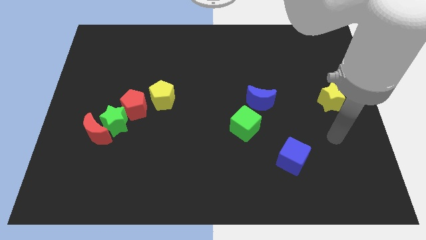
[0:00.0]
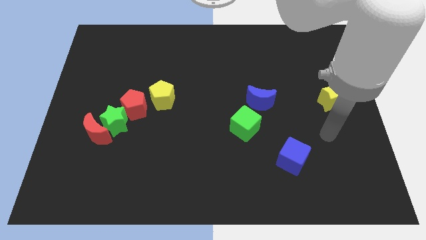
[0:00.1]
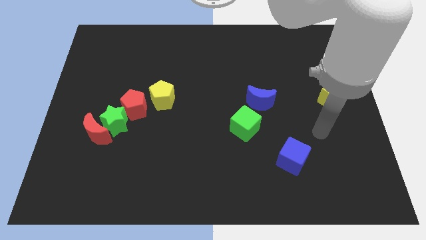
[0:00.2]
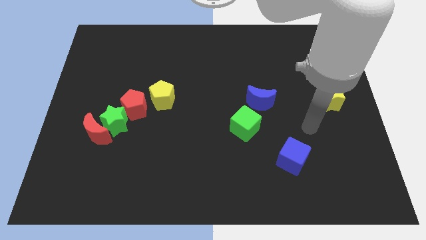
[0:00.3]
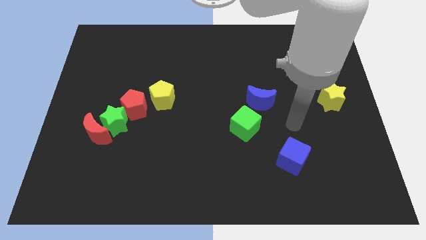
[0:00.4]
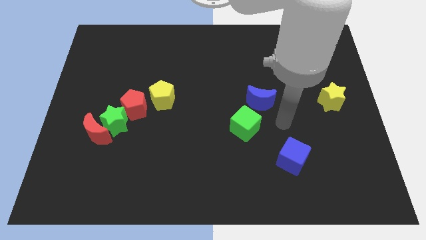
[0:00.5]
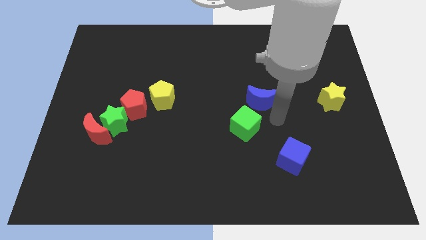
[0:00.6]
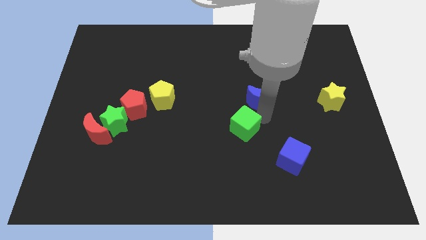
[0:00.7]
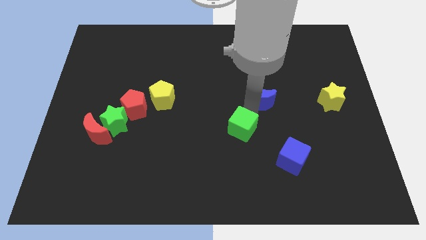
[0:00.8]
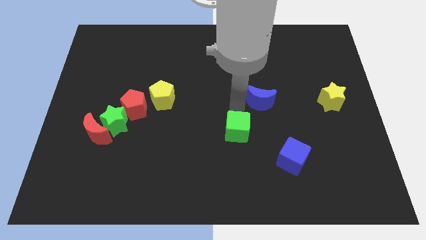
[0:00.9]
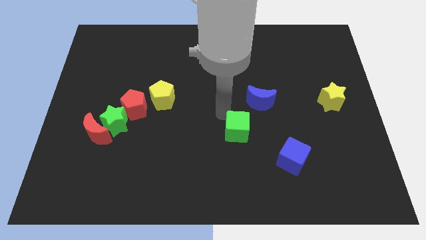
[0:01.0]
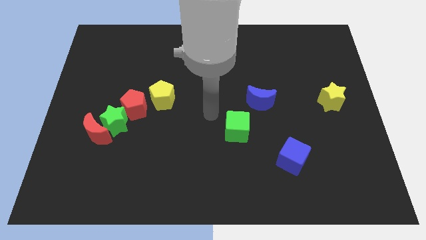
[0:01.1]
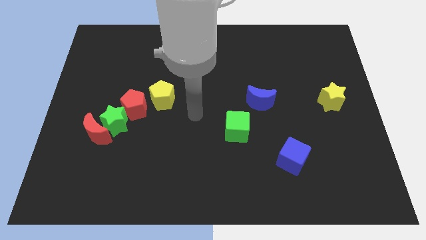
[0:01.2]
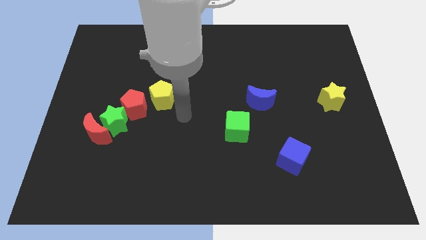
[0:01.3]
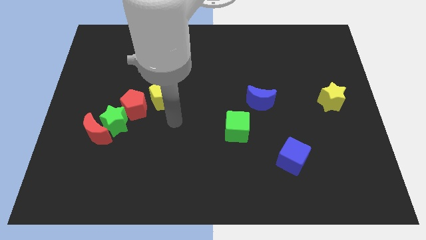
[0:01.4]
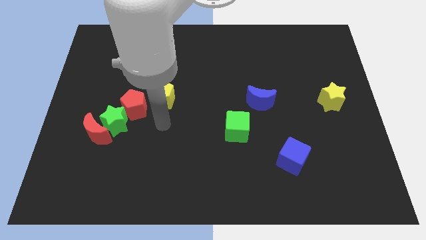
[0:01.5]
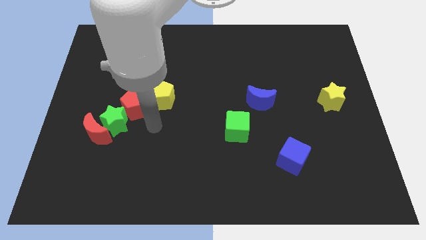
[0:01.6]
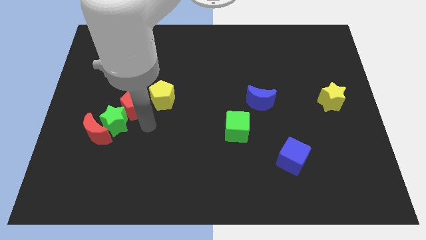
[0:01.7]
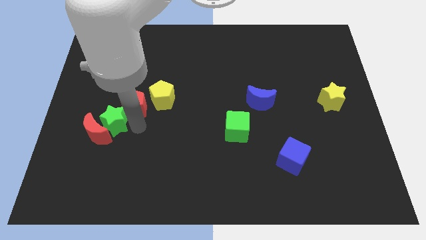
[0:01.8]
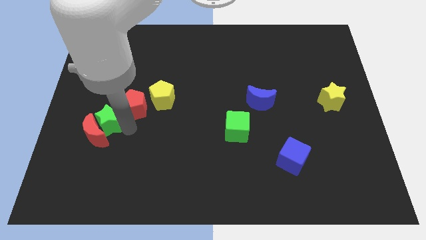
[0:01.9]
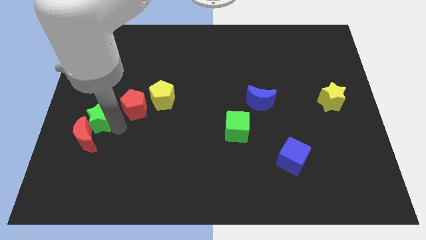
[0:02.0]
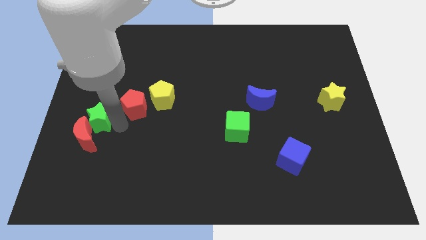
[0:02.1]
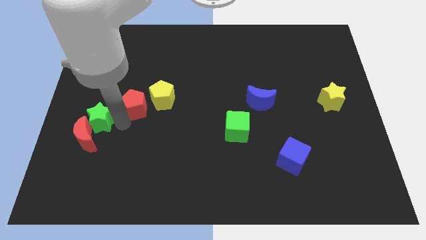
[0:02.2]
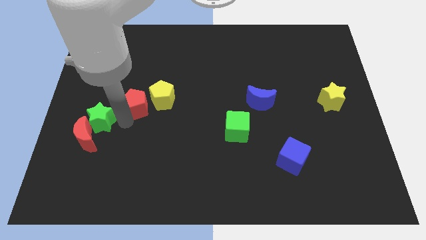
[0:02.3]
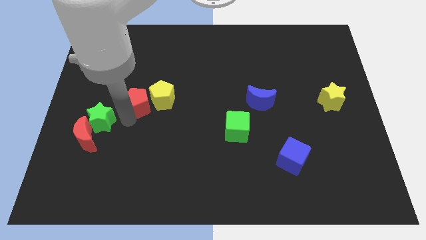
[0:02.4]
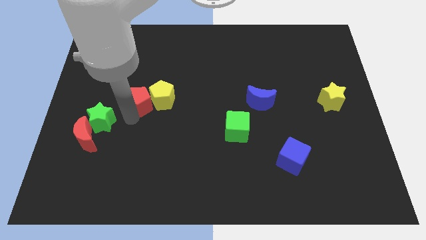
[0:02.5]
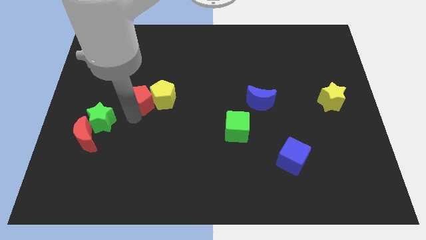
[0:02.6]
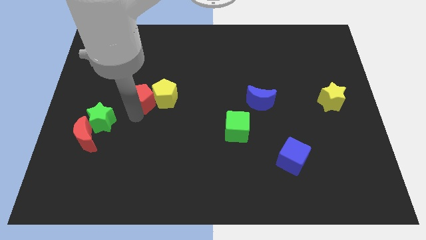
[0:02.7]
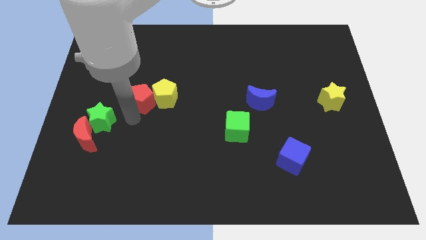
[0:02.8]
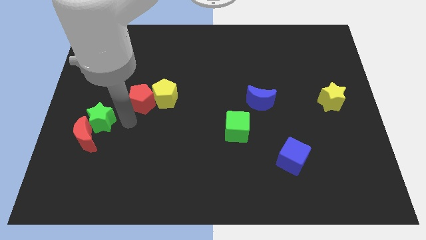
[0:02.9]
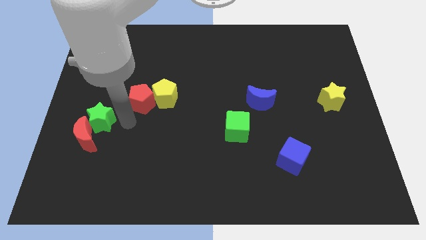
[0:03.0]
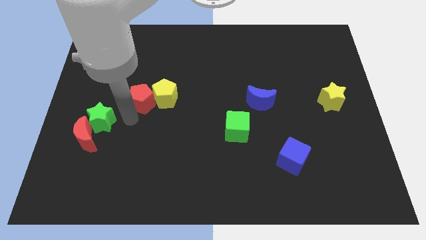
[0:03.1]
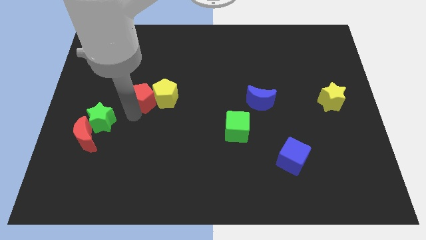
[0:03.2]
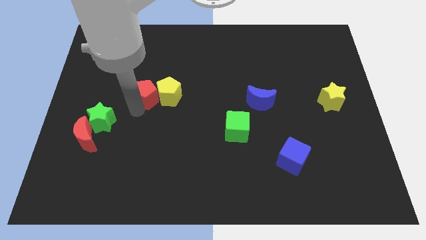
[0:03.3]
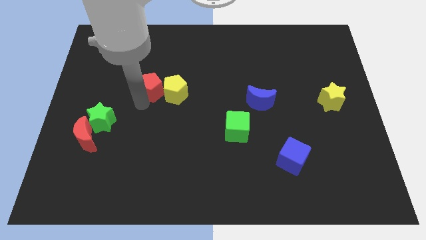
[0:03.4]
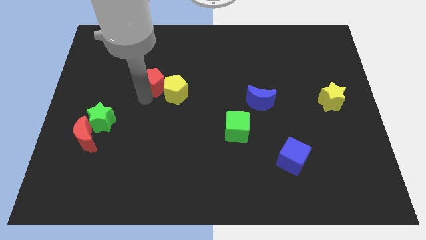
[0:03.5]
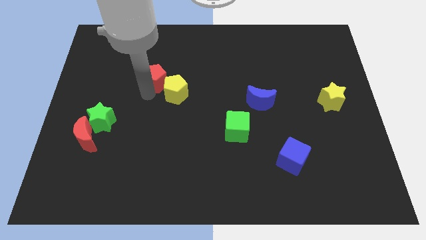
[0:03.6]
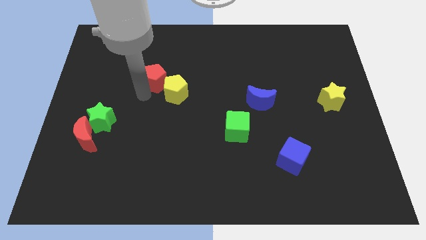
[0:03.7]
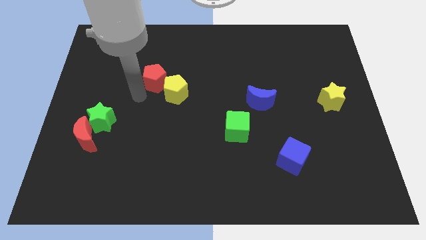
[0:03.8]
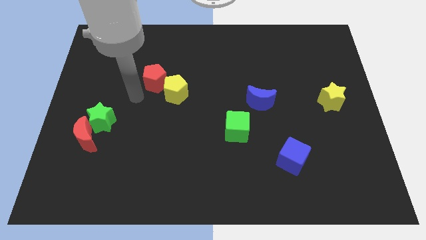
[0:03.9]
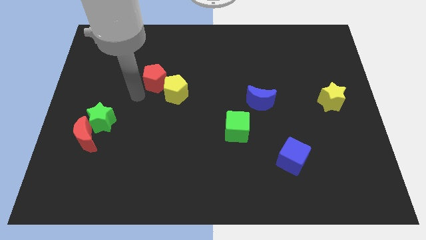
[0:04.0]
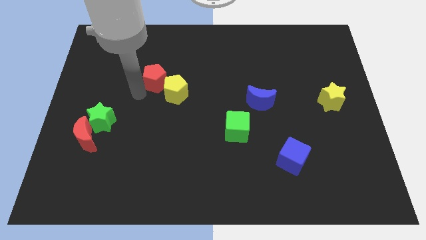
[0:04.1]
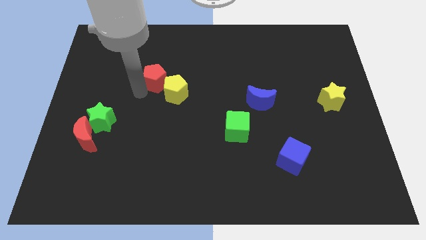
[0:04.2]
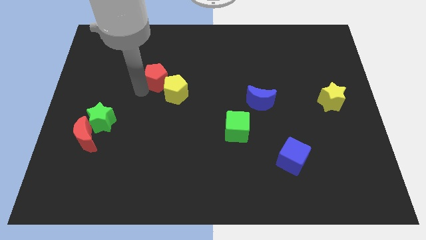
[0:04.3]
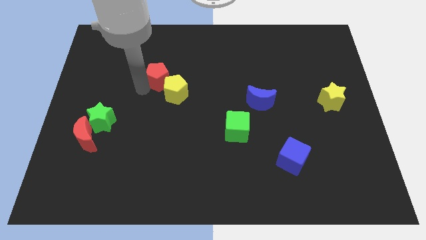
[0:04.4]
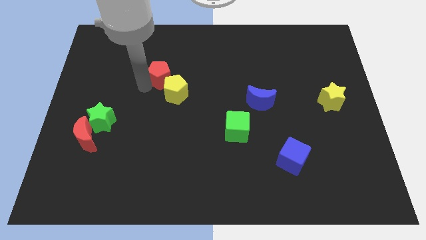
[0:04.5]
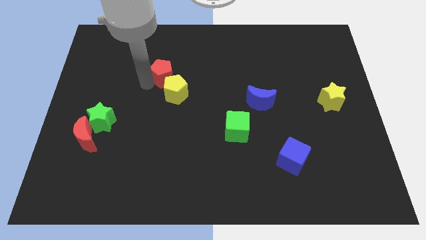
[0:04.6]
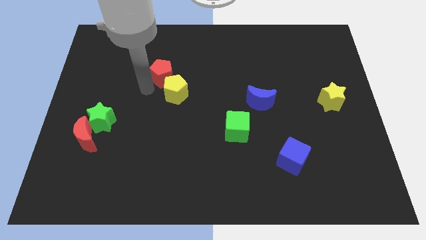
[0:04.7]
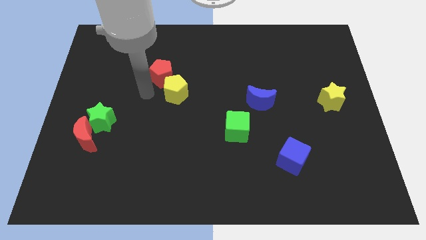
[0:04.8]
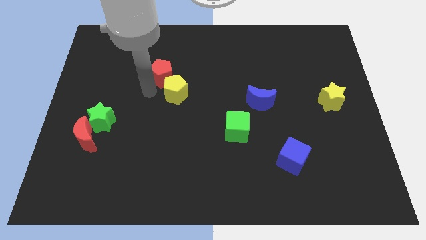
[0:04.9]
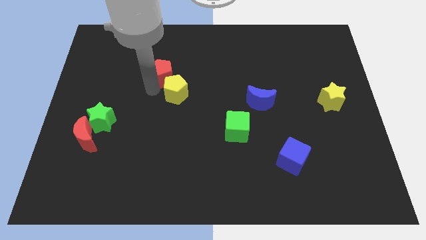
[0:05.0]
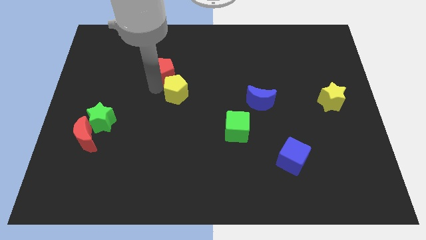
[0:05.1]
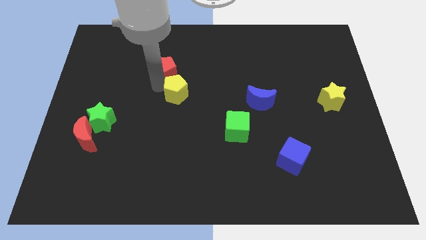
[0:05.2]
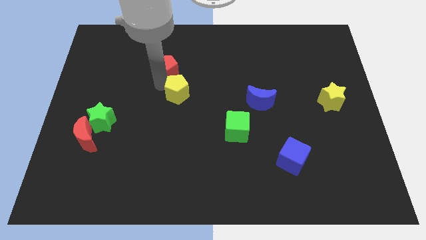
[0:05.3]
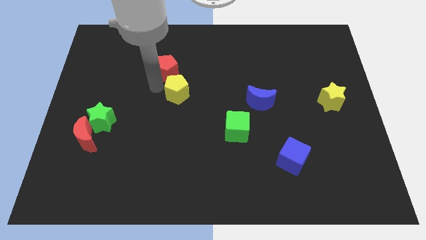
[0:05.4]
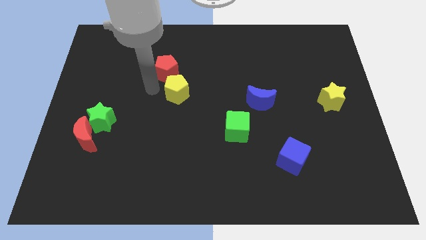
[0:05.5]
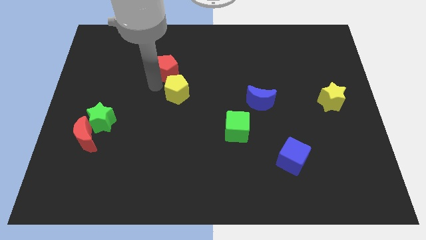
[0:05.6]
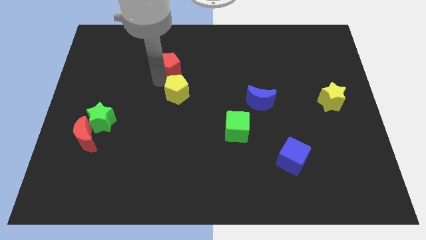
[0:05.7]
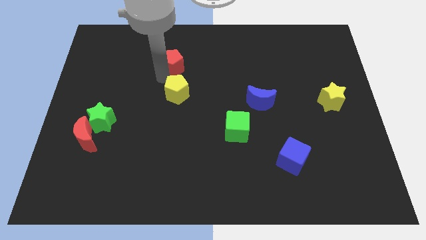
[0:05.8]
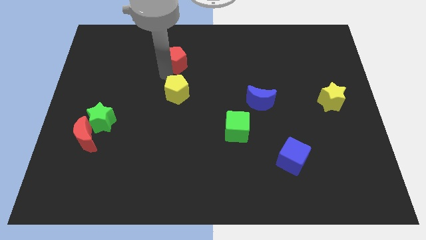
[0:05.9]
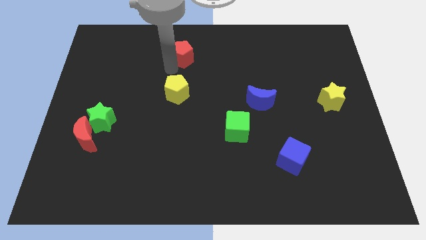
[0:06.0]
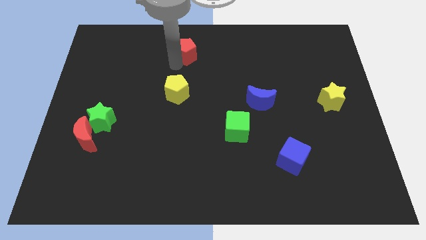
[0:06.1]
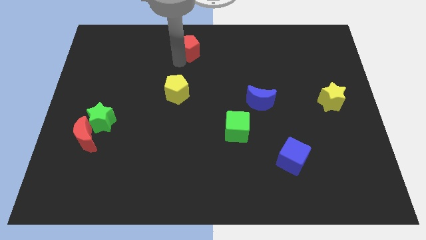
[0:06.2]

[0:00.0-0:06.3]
push the red pentagon to the top

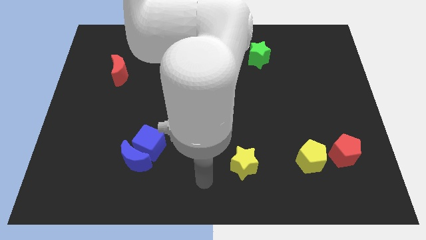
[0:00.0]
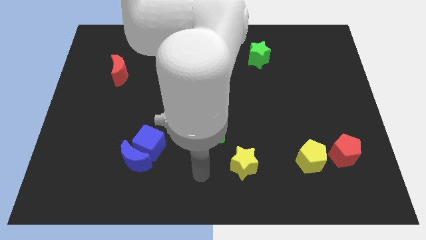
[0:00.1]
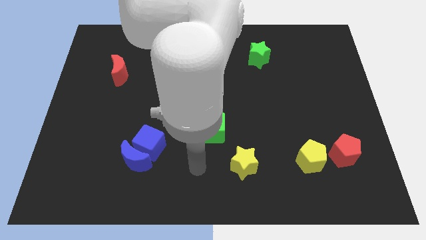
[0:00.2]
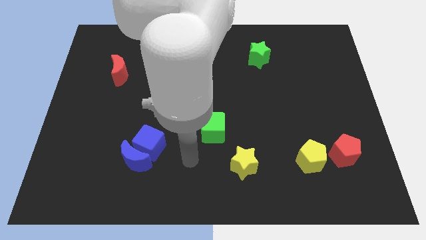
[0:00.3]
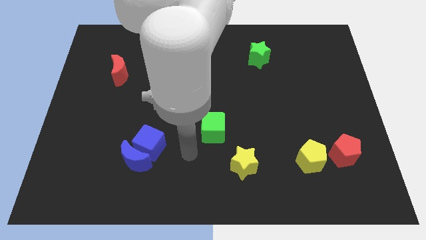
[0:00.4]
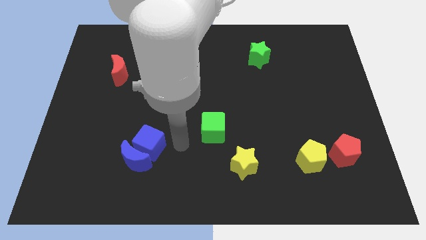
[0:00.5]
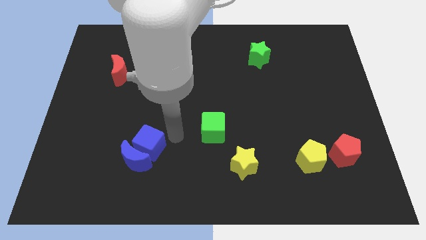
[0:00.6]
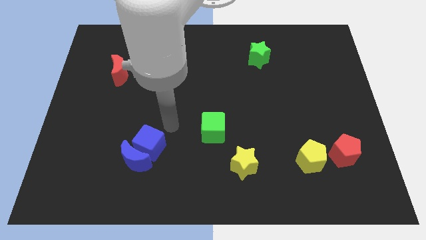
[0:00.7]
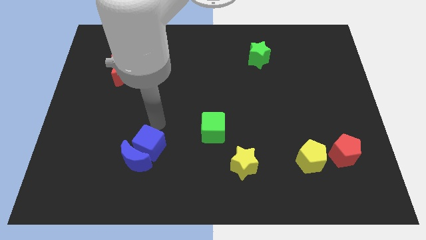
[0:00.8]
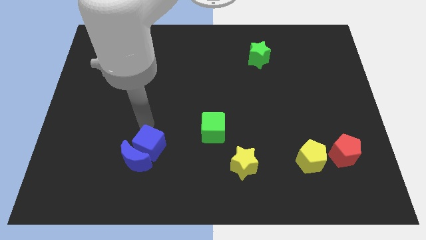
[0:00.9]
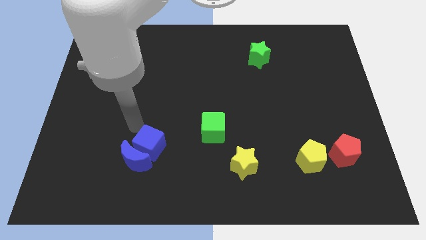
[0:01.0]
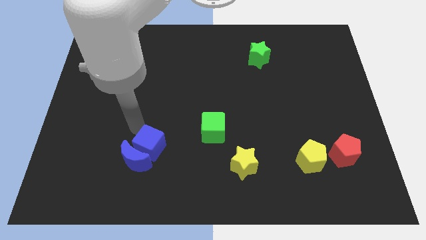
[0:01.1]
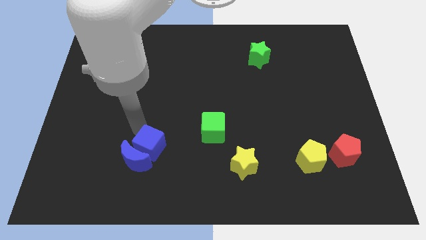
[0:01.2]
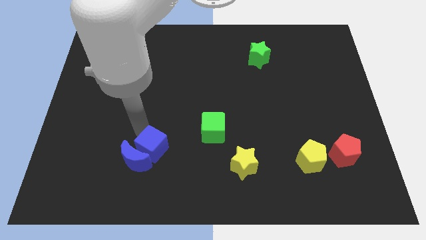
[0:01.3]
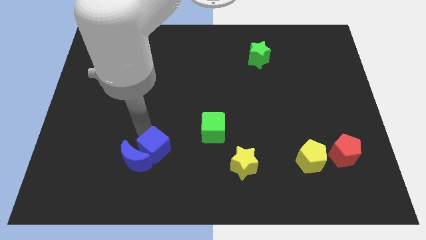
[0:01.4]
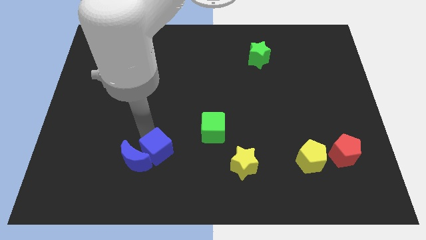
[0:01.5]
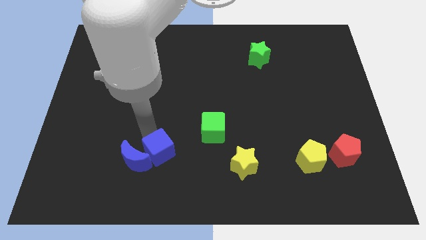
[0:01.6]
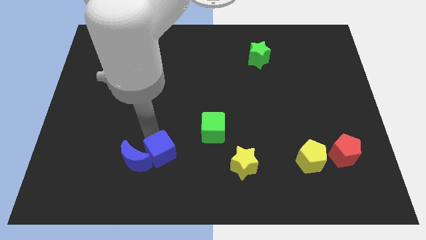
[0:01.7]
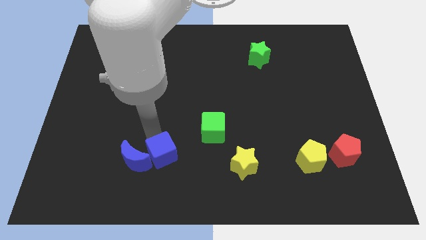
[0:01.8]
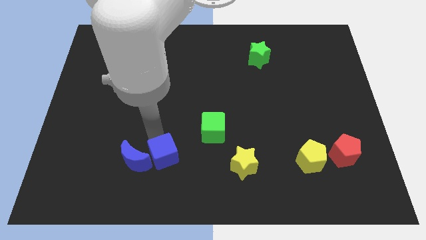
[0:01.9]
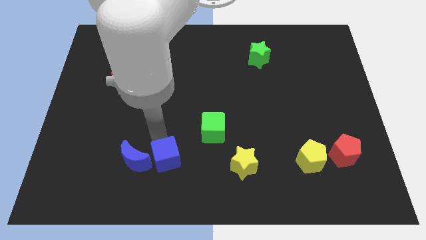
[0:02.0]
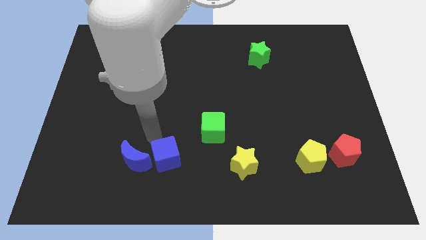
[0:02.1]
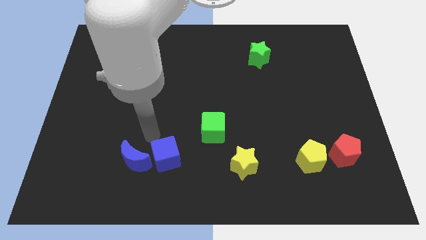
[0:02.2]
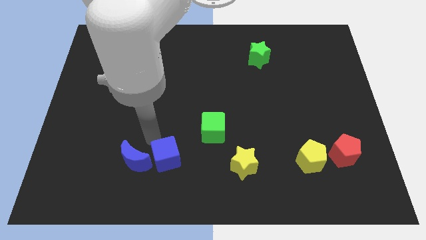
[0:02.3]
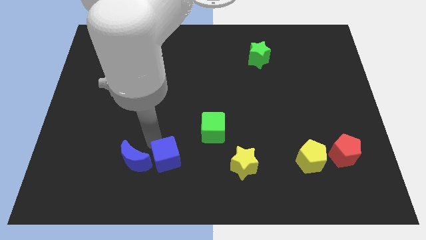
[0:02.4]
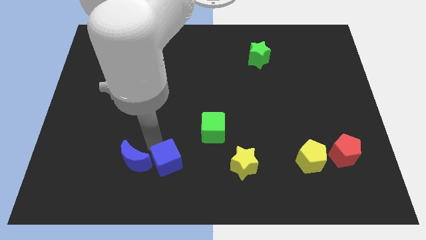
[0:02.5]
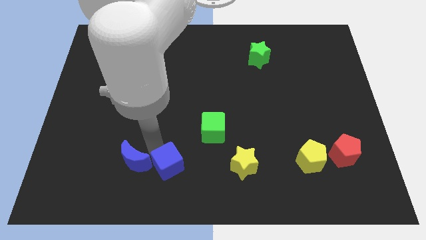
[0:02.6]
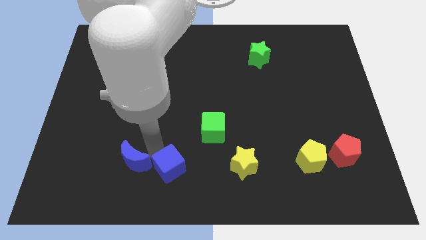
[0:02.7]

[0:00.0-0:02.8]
put the blue cube to the bottom
